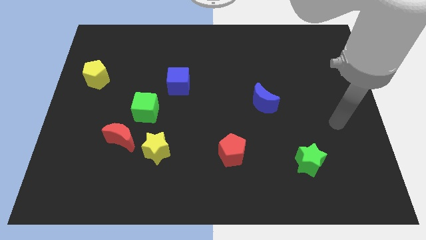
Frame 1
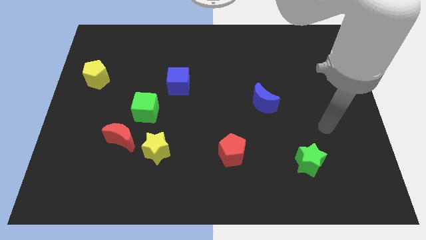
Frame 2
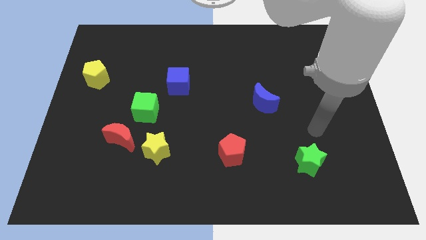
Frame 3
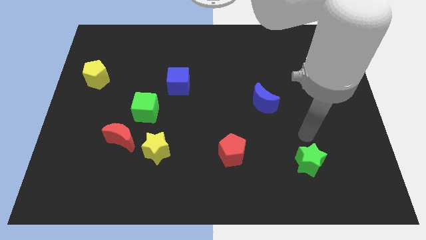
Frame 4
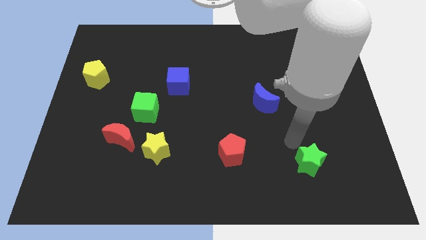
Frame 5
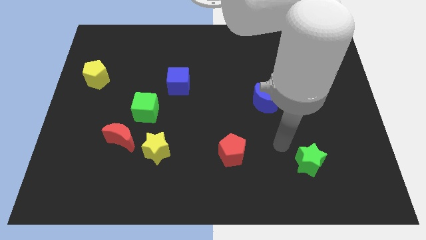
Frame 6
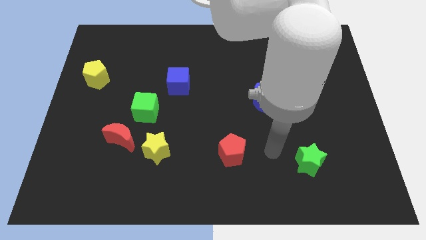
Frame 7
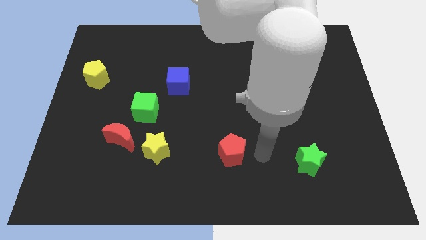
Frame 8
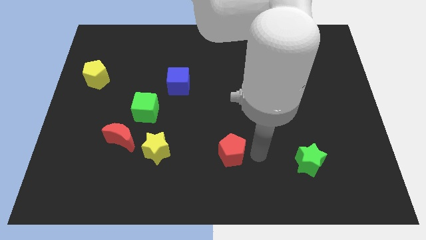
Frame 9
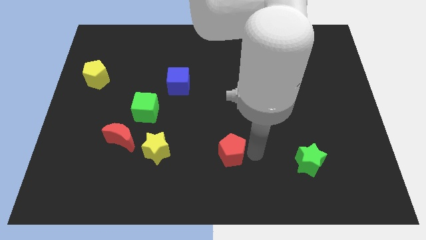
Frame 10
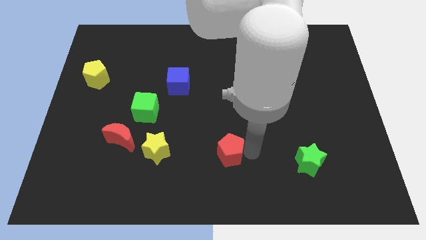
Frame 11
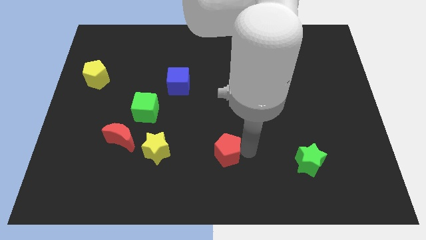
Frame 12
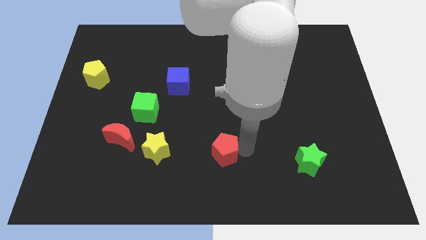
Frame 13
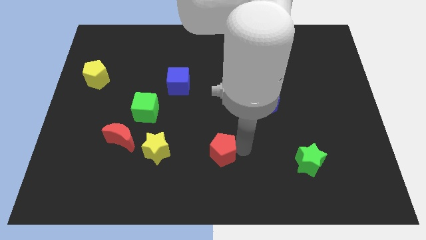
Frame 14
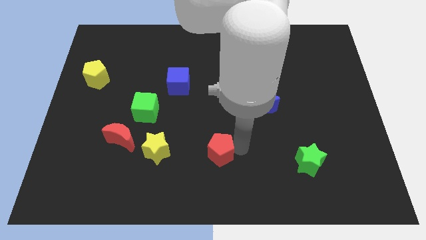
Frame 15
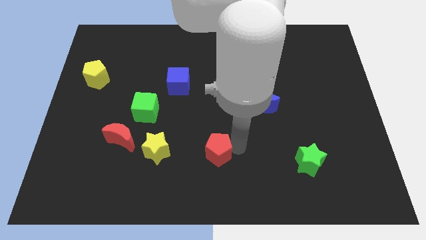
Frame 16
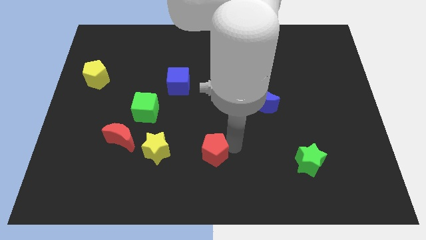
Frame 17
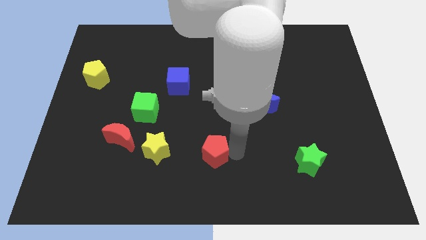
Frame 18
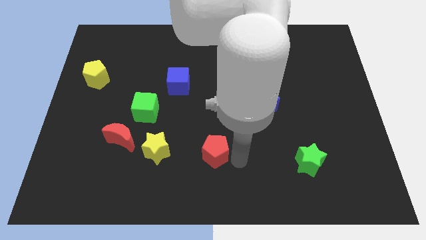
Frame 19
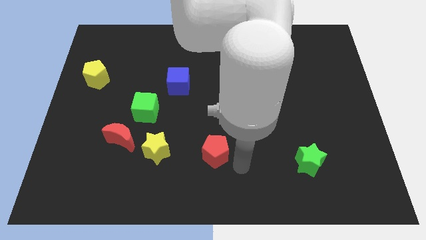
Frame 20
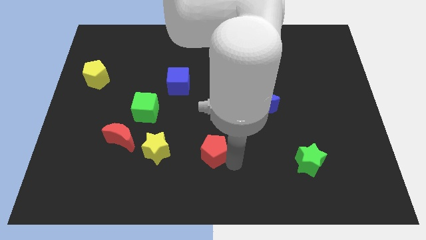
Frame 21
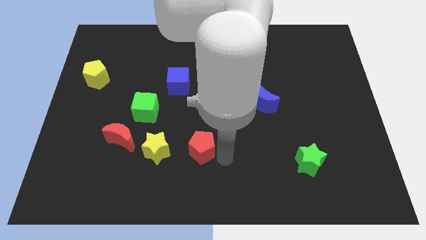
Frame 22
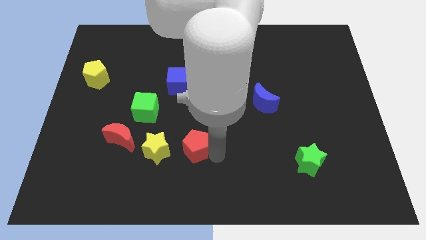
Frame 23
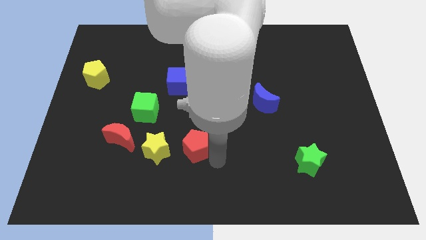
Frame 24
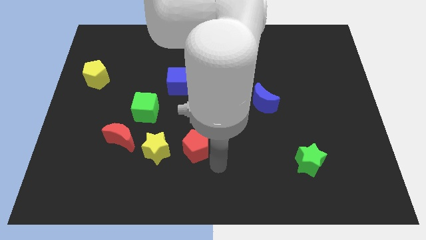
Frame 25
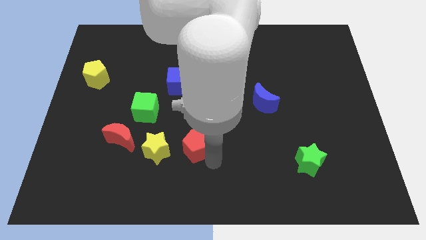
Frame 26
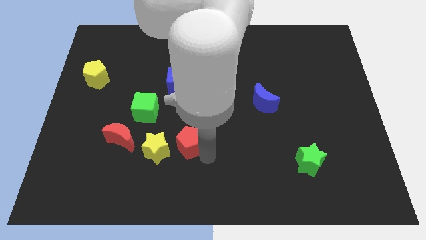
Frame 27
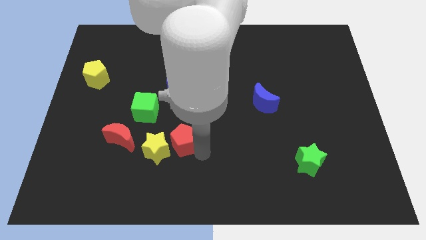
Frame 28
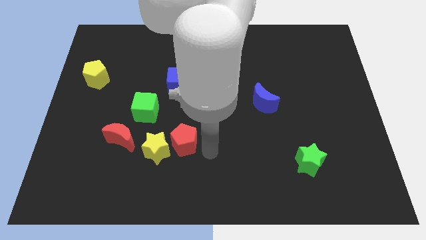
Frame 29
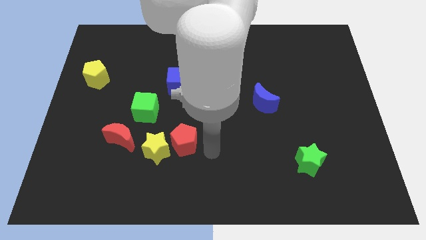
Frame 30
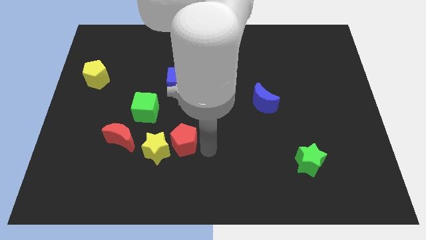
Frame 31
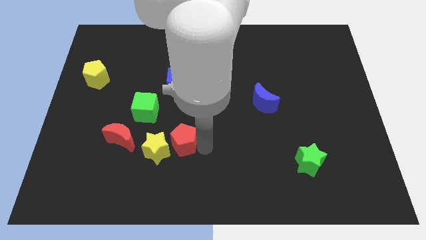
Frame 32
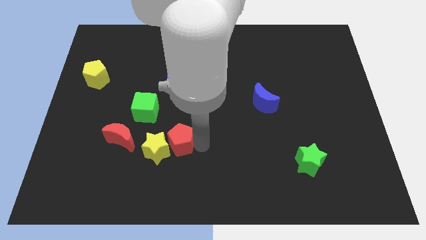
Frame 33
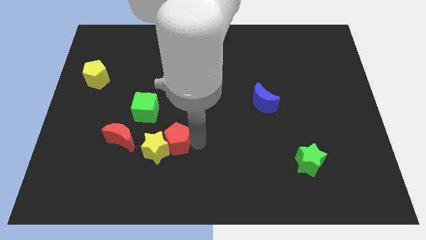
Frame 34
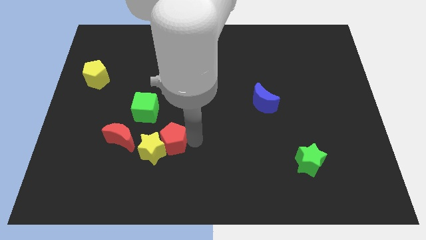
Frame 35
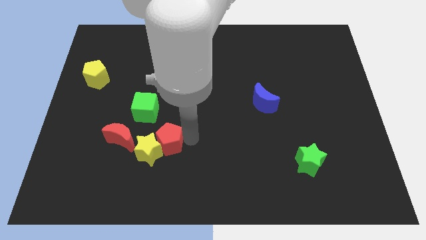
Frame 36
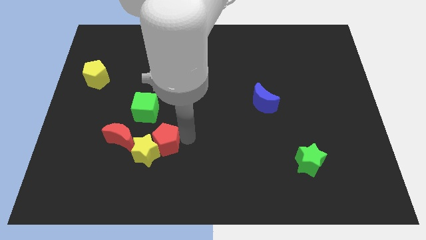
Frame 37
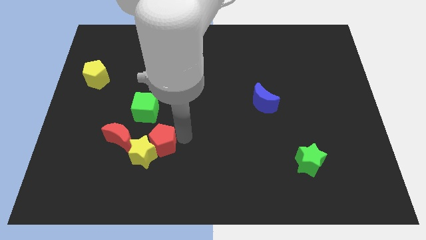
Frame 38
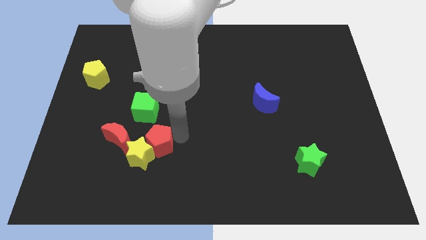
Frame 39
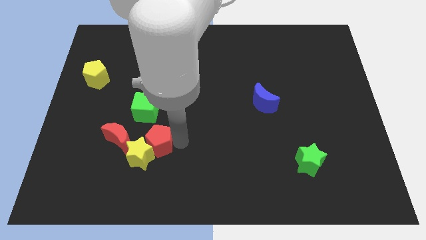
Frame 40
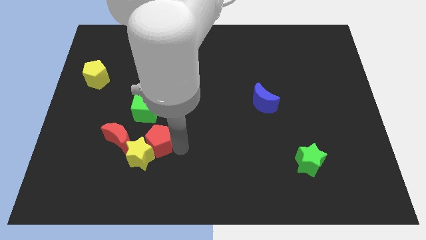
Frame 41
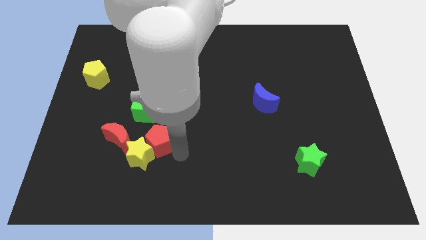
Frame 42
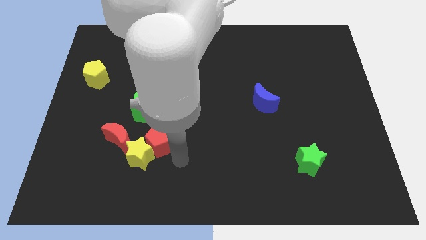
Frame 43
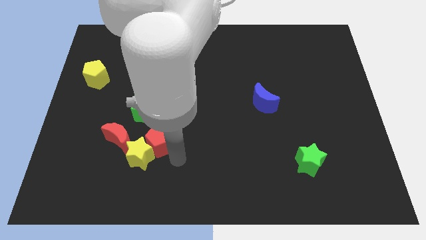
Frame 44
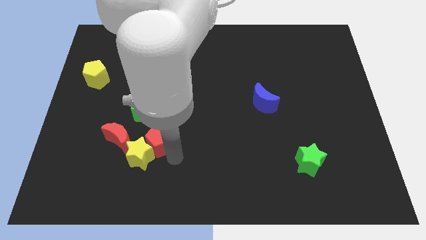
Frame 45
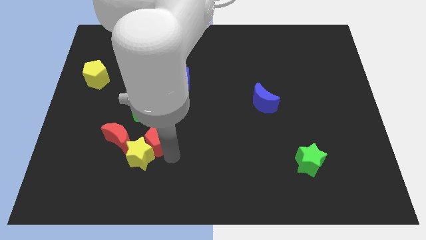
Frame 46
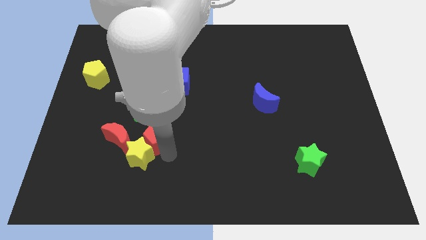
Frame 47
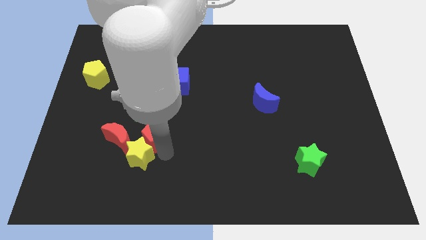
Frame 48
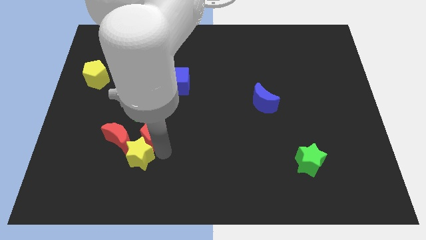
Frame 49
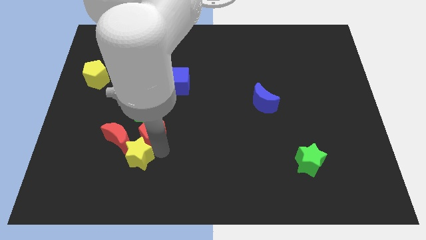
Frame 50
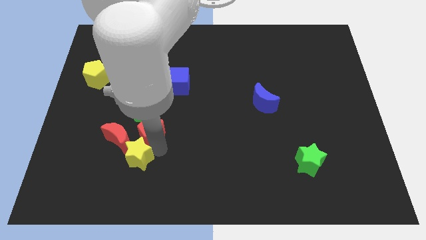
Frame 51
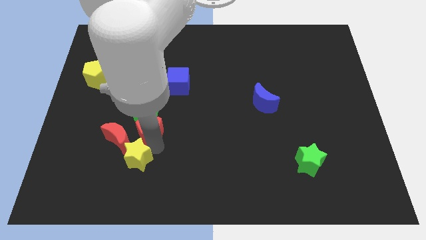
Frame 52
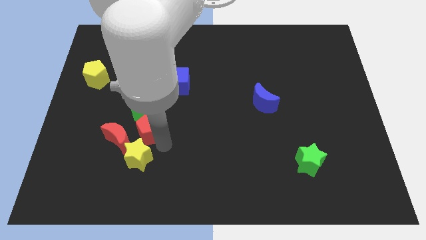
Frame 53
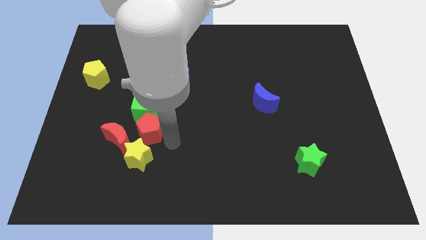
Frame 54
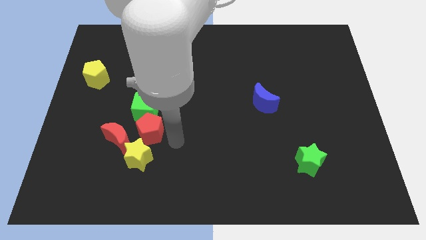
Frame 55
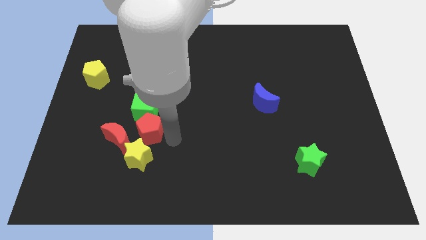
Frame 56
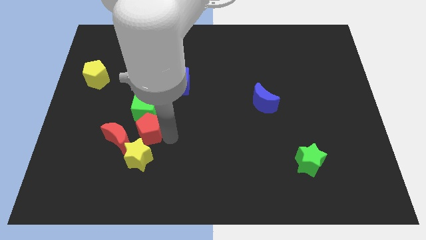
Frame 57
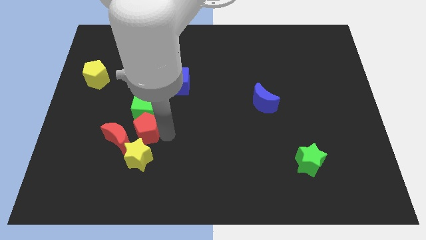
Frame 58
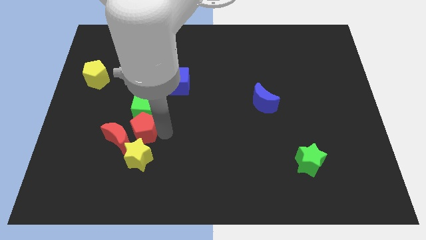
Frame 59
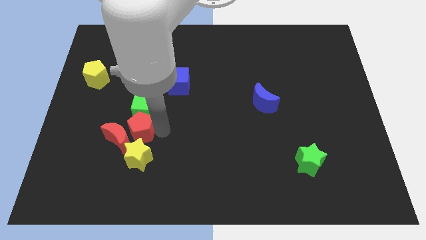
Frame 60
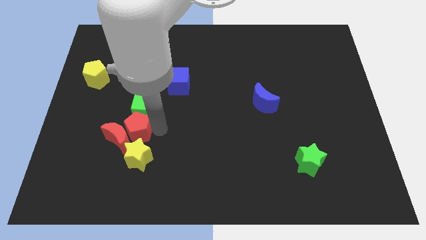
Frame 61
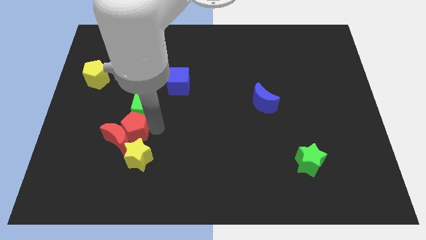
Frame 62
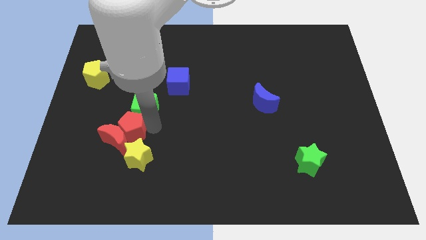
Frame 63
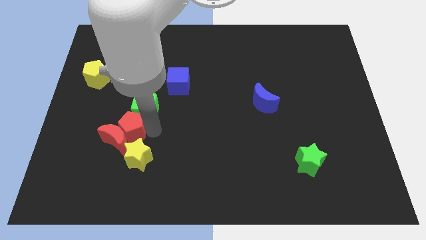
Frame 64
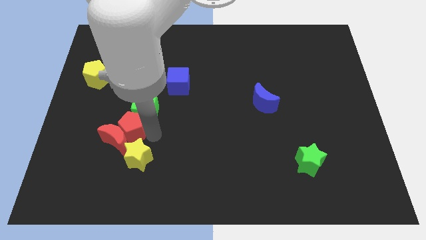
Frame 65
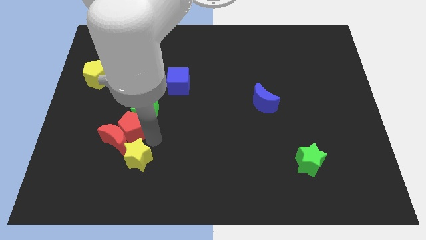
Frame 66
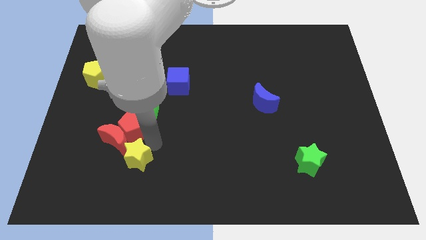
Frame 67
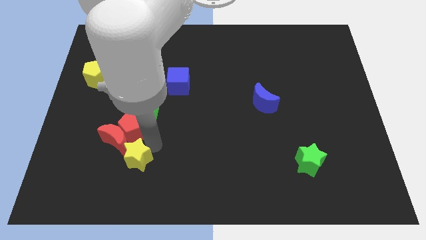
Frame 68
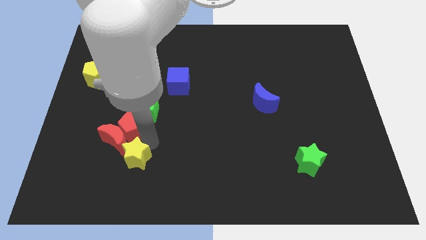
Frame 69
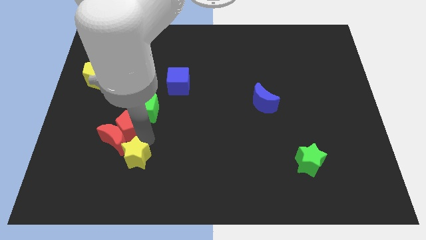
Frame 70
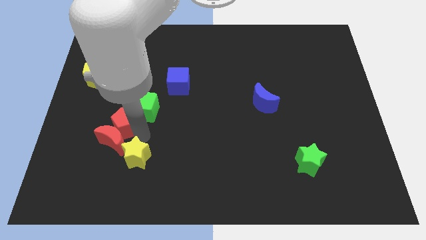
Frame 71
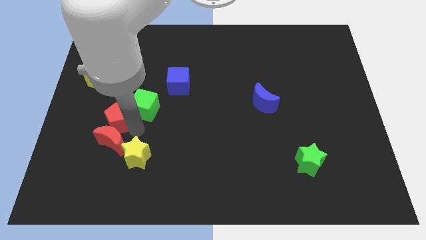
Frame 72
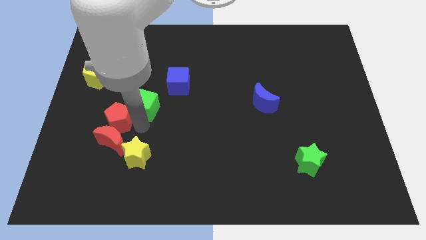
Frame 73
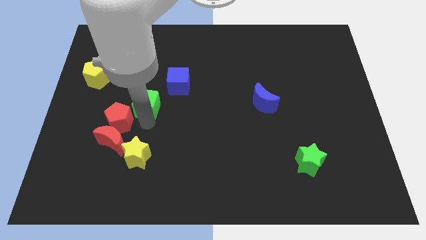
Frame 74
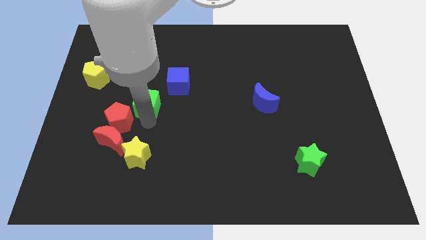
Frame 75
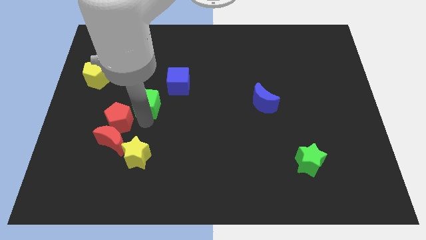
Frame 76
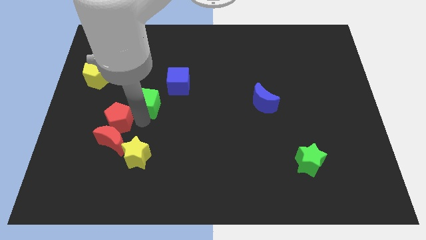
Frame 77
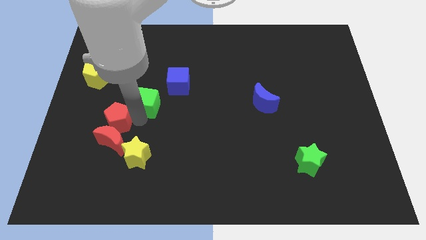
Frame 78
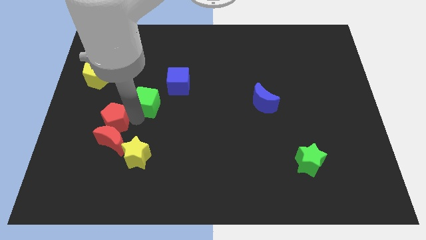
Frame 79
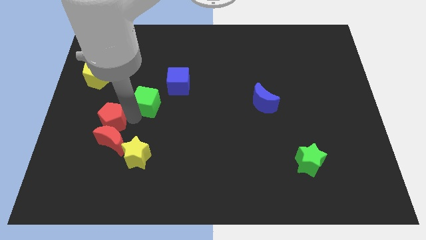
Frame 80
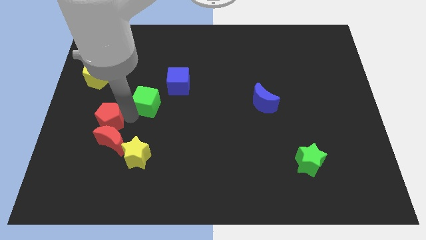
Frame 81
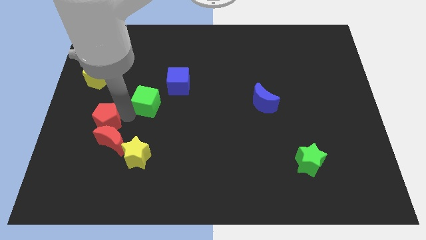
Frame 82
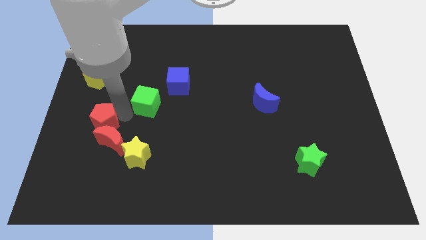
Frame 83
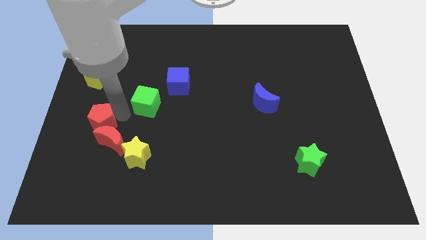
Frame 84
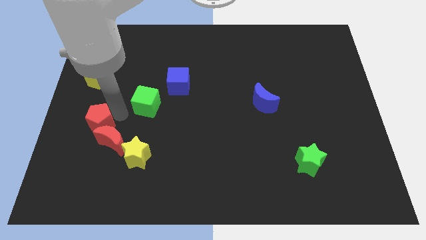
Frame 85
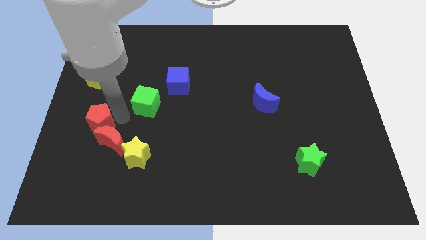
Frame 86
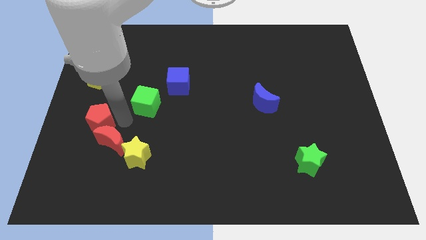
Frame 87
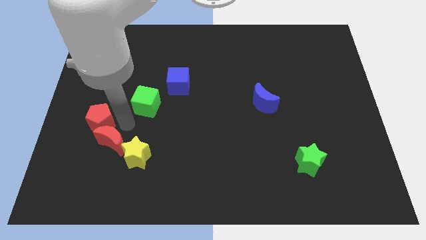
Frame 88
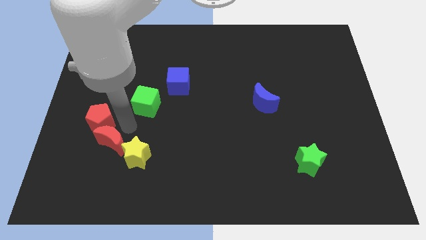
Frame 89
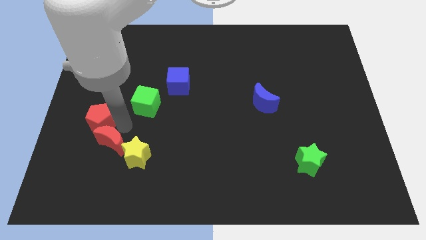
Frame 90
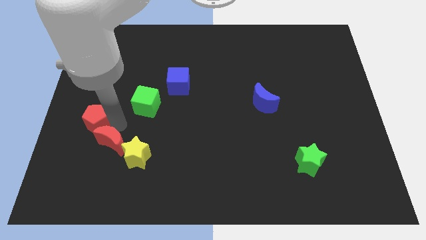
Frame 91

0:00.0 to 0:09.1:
put the red pentagon to the left side of the board
